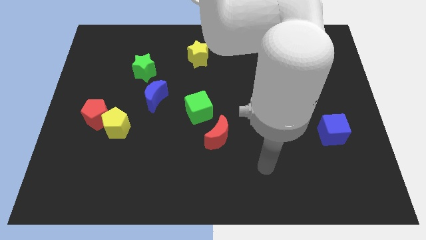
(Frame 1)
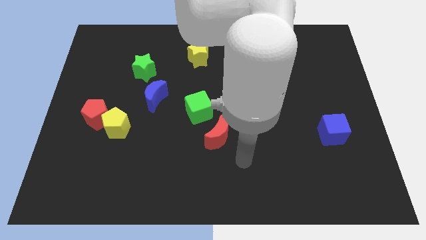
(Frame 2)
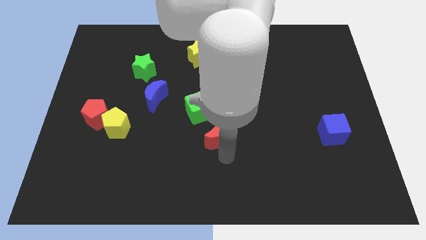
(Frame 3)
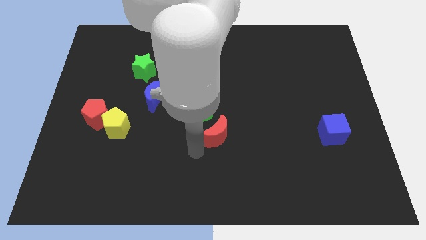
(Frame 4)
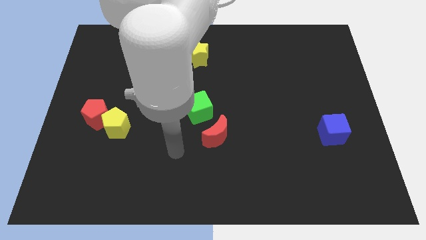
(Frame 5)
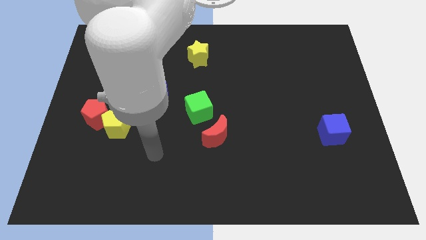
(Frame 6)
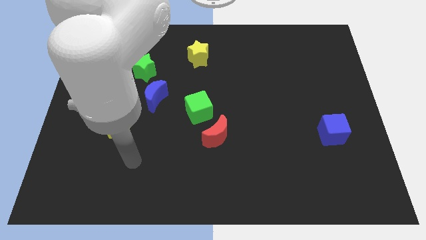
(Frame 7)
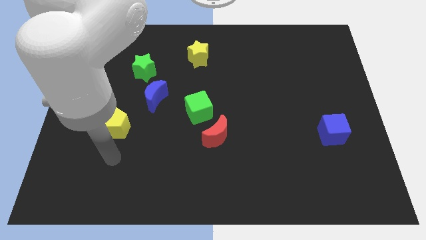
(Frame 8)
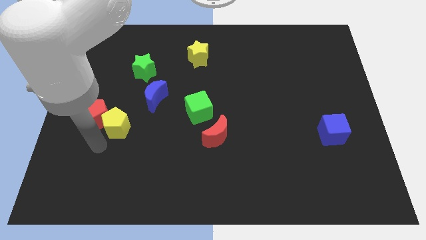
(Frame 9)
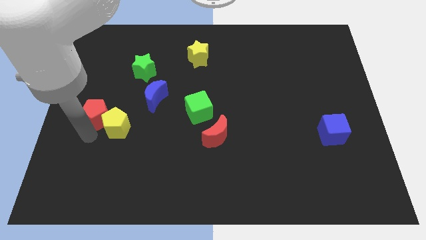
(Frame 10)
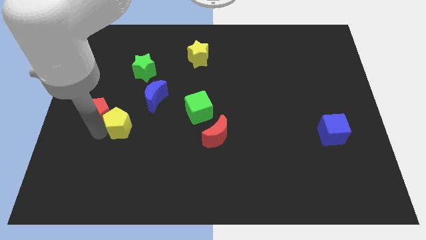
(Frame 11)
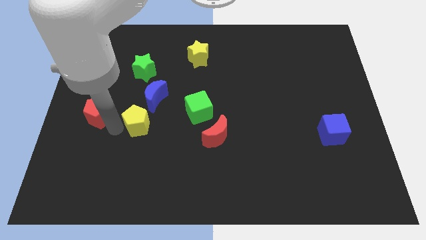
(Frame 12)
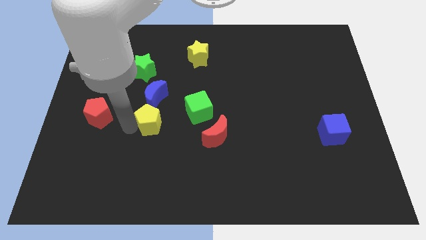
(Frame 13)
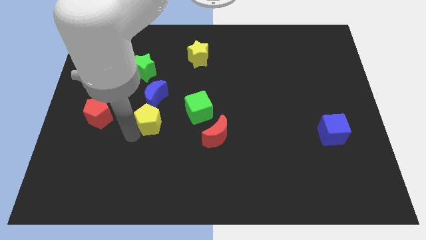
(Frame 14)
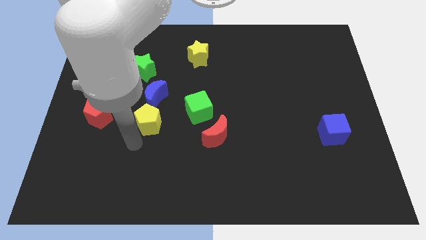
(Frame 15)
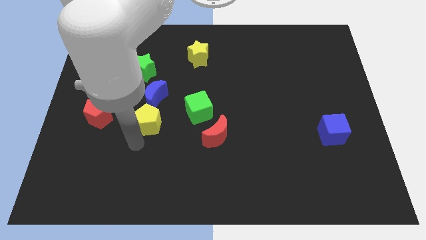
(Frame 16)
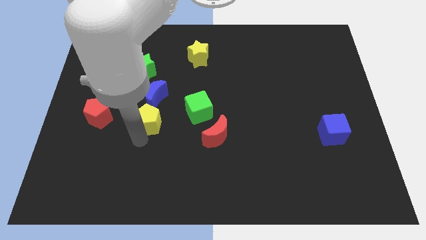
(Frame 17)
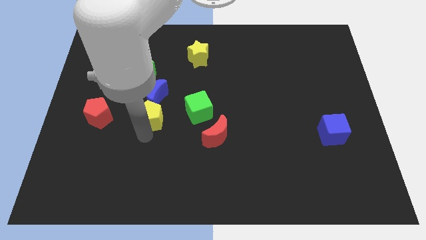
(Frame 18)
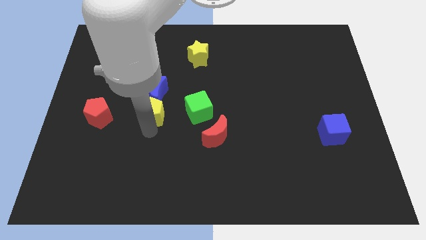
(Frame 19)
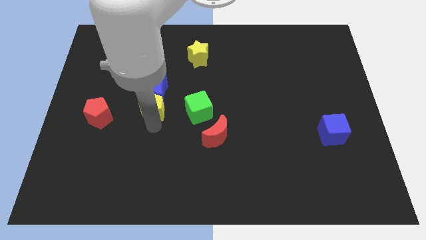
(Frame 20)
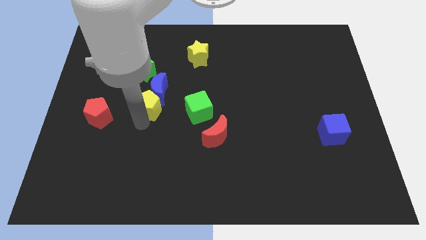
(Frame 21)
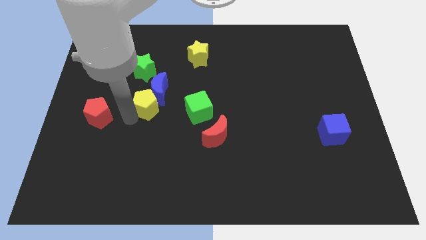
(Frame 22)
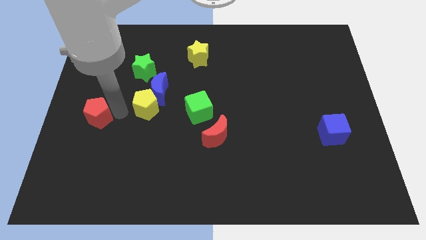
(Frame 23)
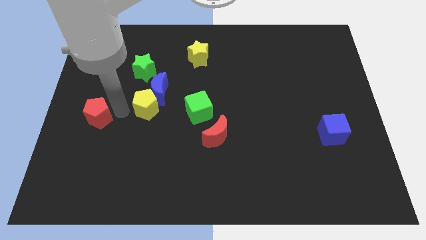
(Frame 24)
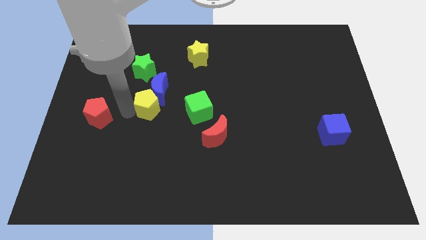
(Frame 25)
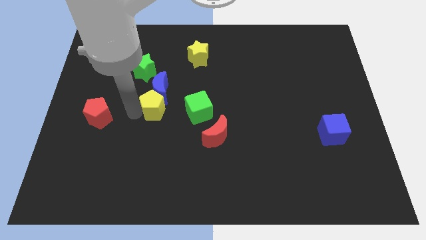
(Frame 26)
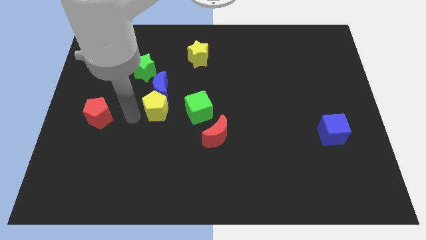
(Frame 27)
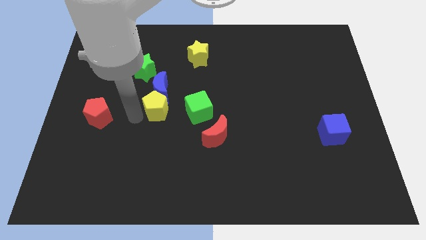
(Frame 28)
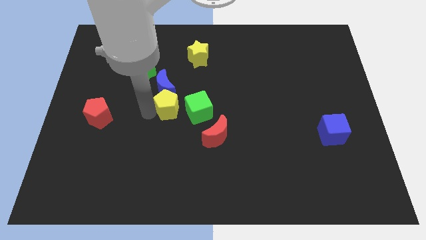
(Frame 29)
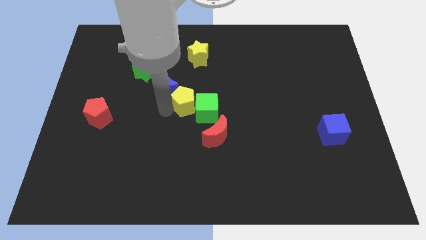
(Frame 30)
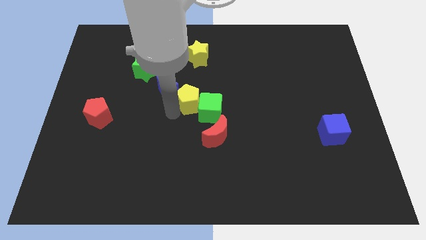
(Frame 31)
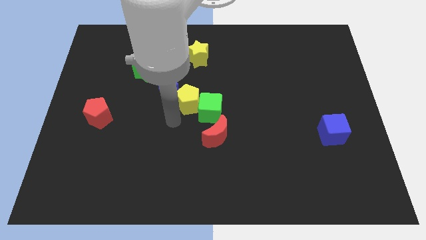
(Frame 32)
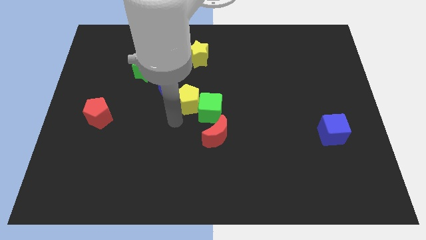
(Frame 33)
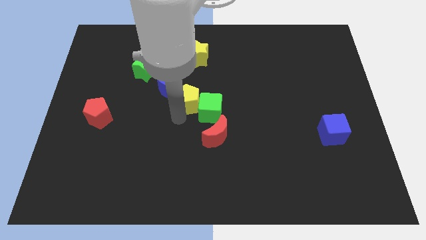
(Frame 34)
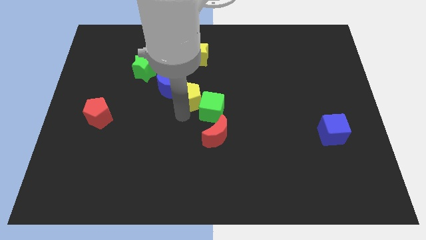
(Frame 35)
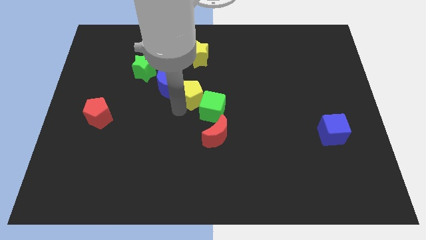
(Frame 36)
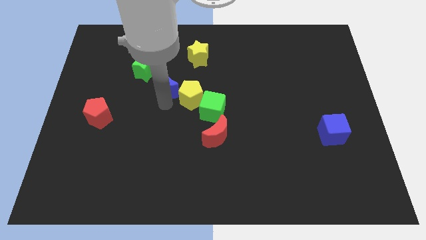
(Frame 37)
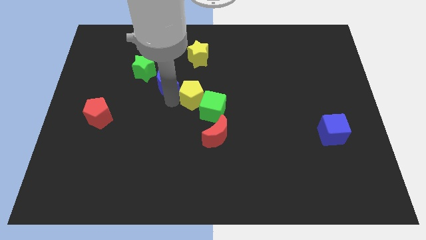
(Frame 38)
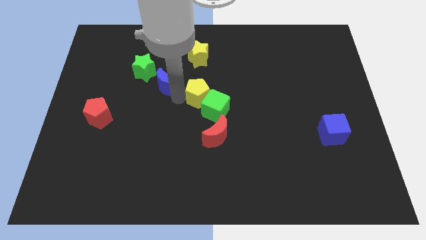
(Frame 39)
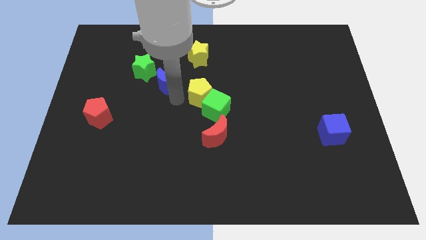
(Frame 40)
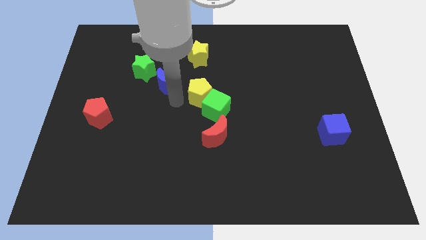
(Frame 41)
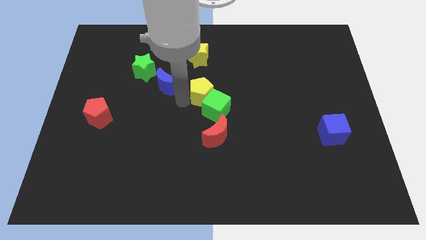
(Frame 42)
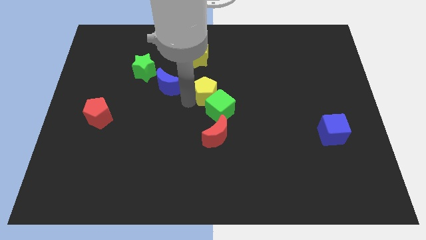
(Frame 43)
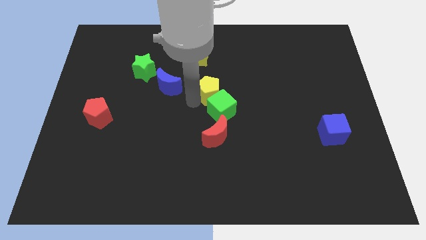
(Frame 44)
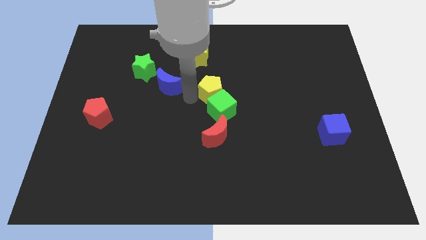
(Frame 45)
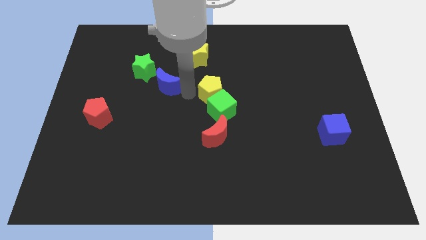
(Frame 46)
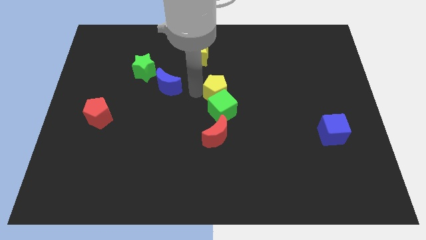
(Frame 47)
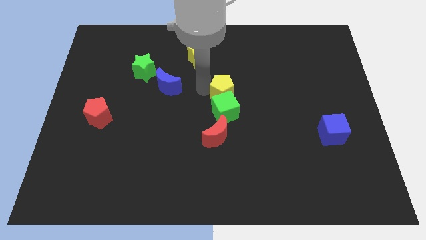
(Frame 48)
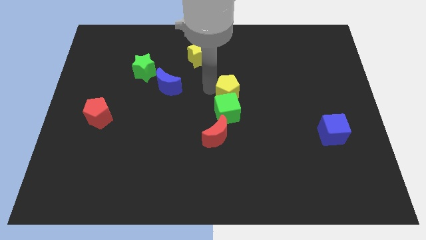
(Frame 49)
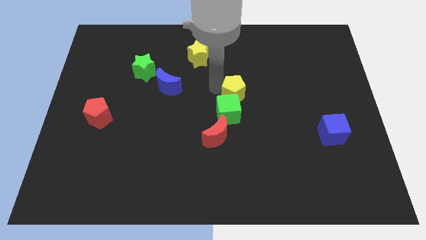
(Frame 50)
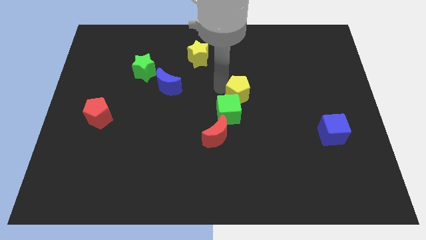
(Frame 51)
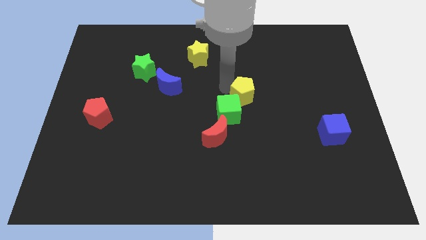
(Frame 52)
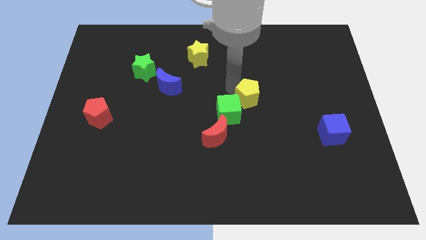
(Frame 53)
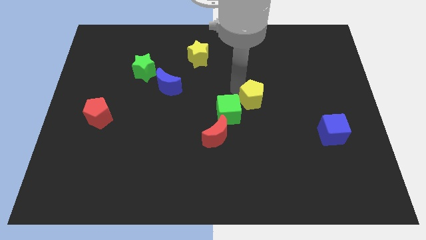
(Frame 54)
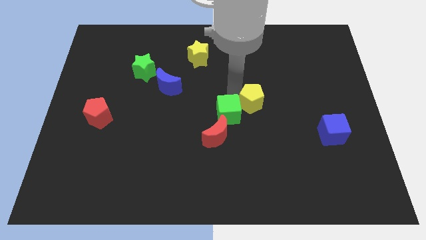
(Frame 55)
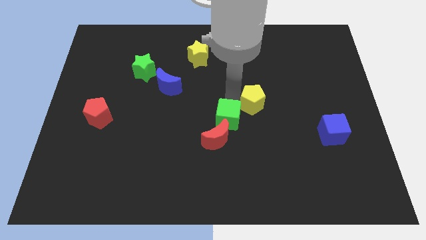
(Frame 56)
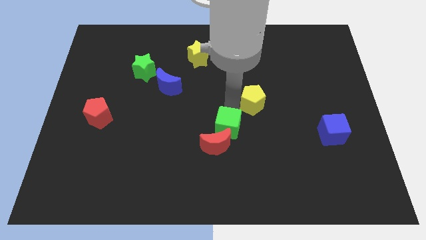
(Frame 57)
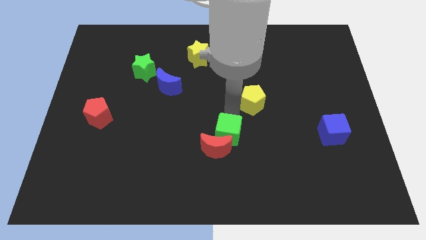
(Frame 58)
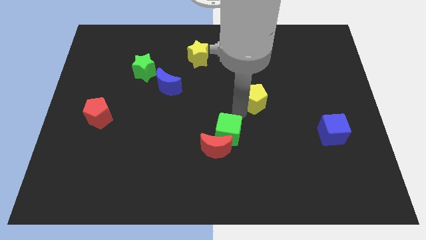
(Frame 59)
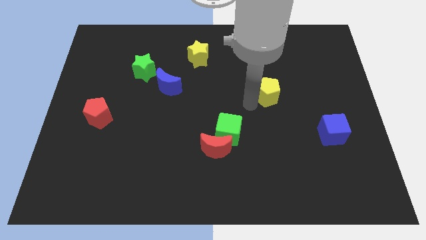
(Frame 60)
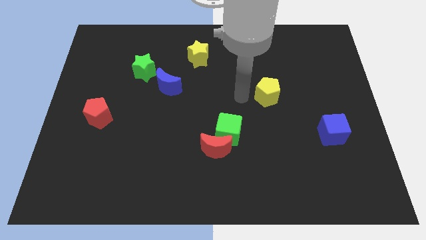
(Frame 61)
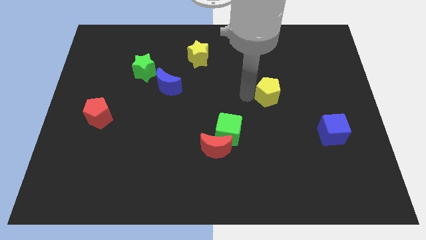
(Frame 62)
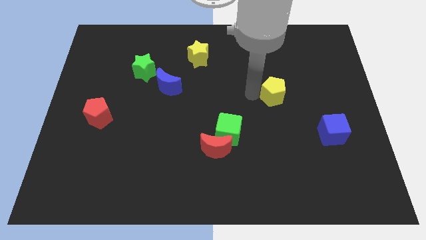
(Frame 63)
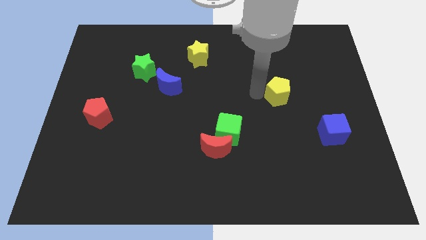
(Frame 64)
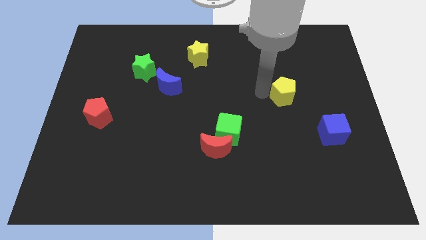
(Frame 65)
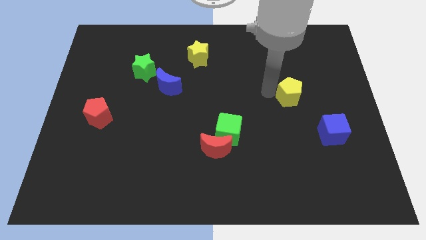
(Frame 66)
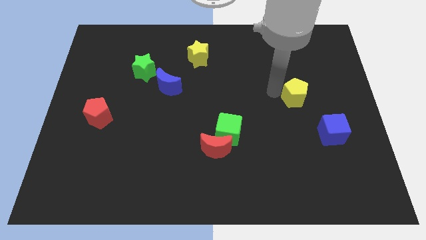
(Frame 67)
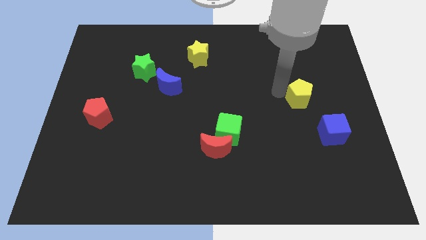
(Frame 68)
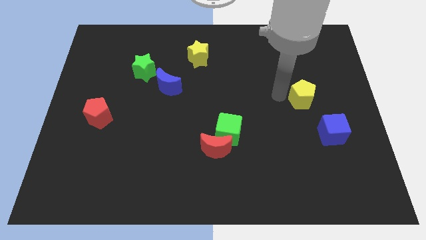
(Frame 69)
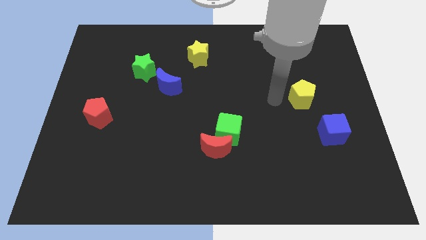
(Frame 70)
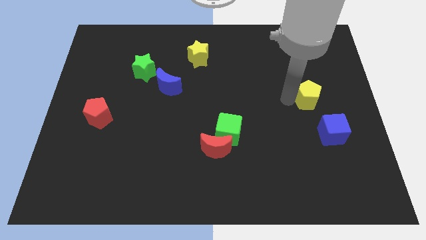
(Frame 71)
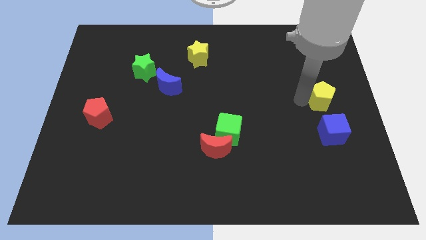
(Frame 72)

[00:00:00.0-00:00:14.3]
put the yellow pentagon to the center right
